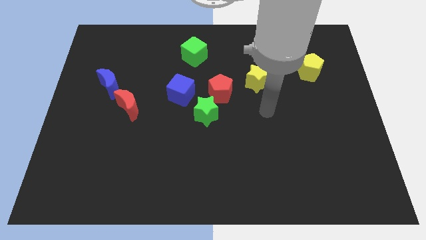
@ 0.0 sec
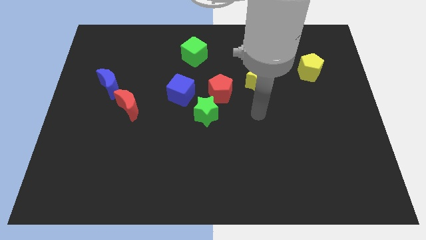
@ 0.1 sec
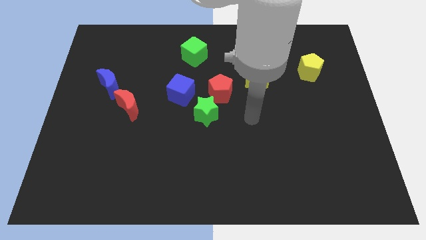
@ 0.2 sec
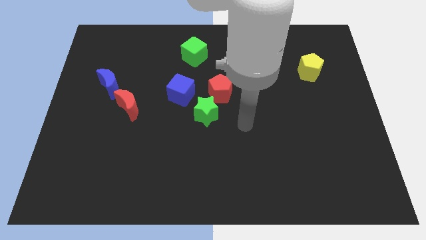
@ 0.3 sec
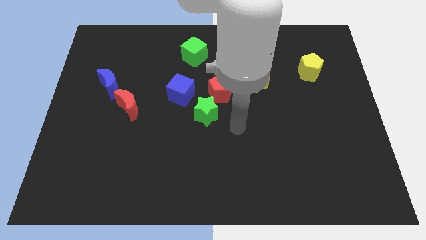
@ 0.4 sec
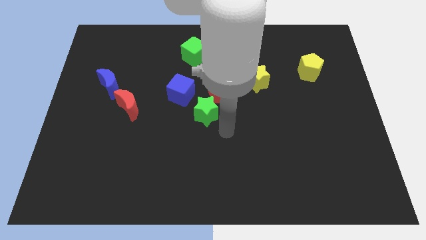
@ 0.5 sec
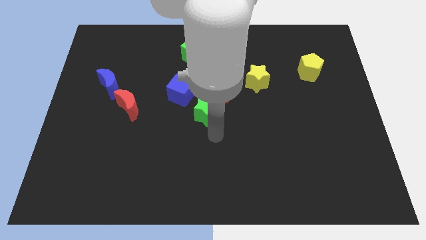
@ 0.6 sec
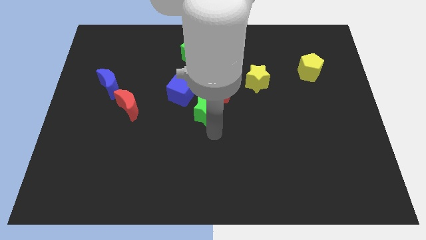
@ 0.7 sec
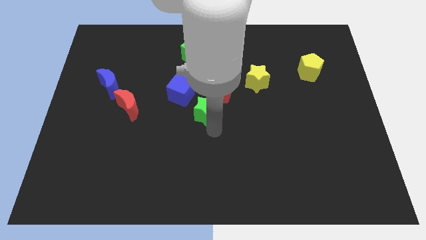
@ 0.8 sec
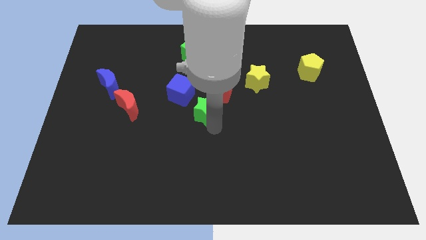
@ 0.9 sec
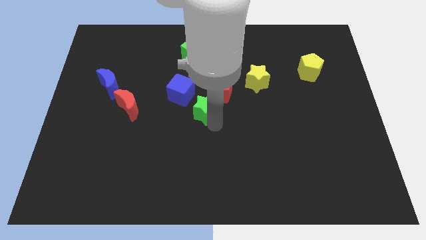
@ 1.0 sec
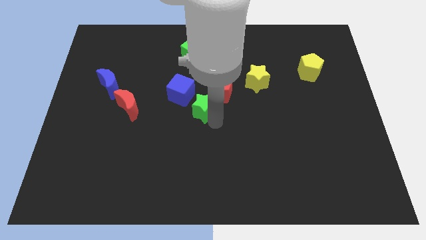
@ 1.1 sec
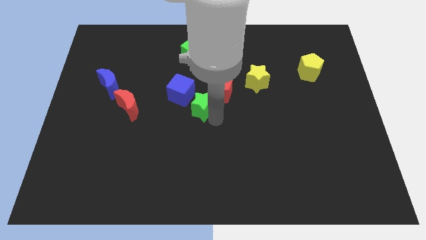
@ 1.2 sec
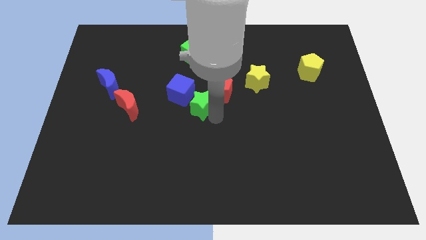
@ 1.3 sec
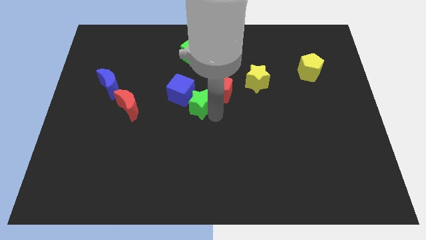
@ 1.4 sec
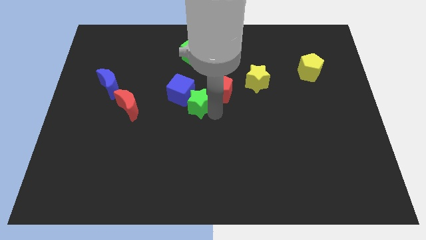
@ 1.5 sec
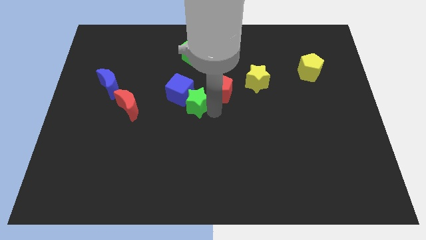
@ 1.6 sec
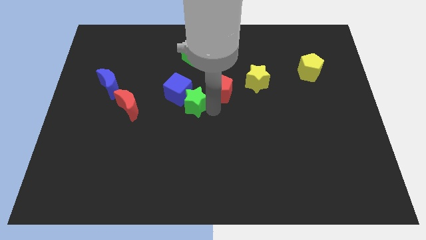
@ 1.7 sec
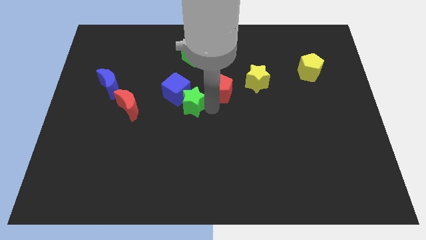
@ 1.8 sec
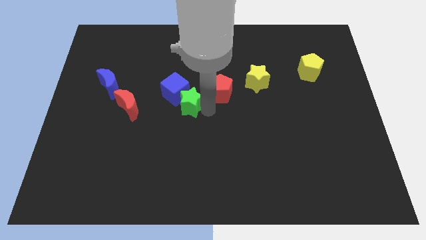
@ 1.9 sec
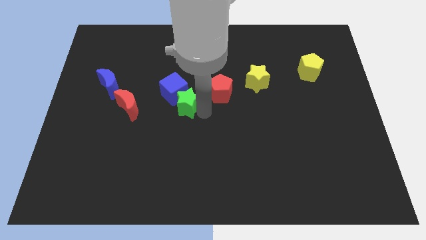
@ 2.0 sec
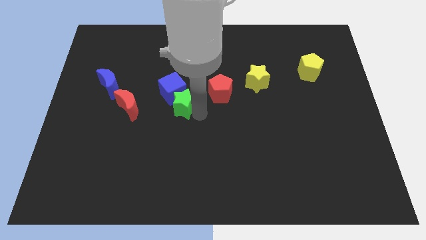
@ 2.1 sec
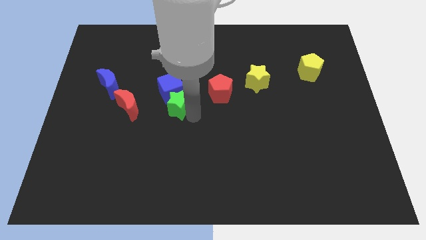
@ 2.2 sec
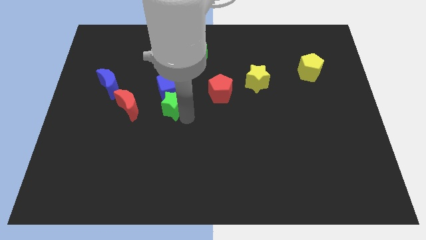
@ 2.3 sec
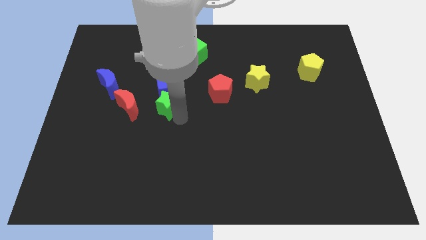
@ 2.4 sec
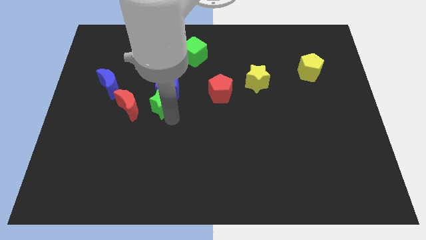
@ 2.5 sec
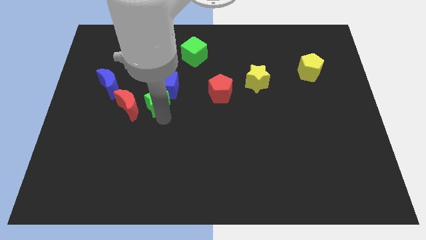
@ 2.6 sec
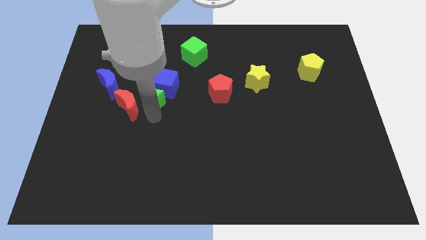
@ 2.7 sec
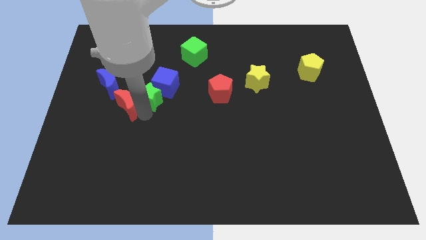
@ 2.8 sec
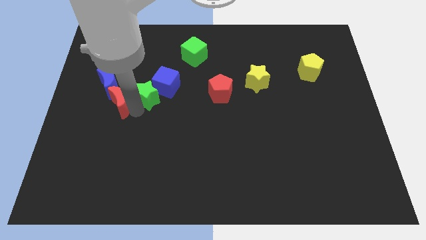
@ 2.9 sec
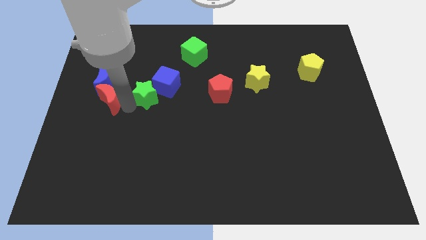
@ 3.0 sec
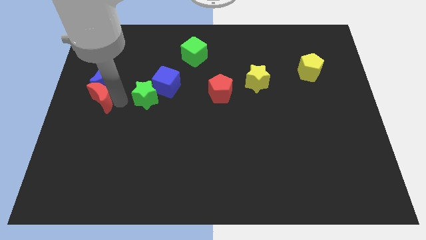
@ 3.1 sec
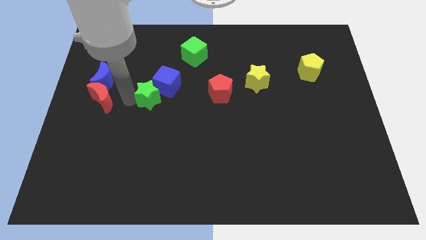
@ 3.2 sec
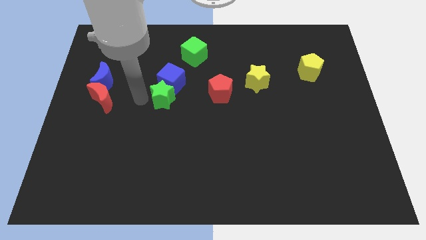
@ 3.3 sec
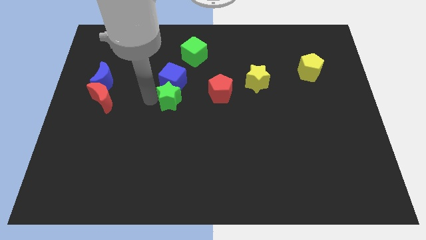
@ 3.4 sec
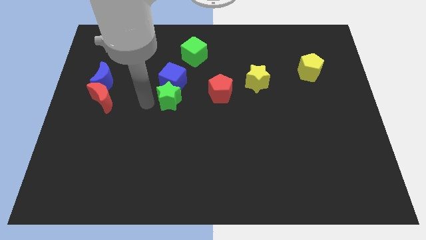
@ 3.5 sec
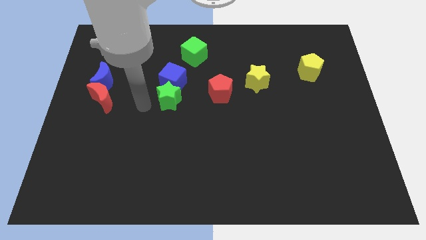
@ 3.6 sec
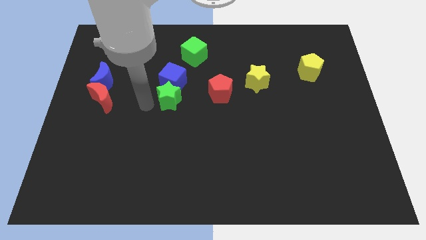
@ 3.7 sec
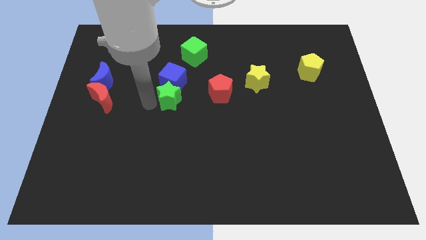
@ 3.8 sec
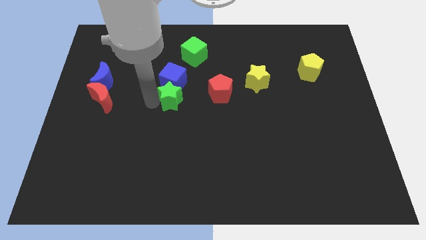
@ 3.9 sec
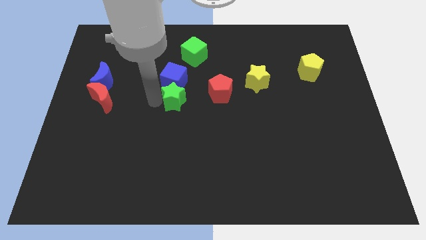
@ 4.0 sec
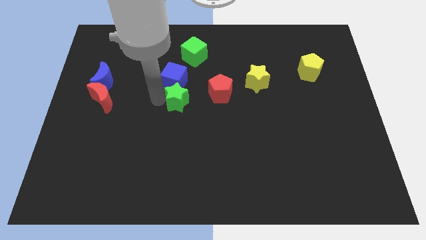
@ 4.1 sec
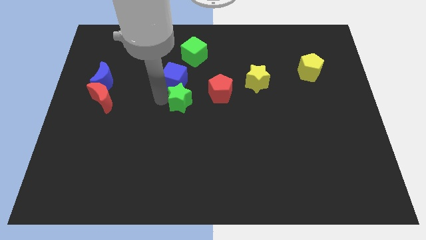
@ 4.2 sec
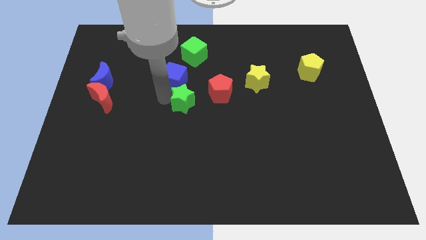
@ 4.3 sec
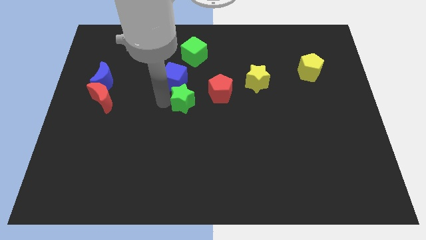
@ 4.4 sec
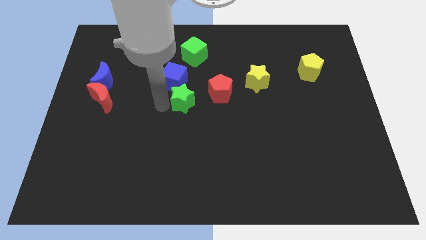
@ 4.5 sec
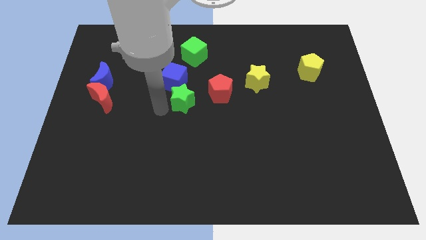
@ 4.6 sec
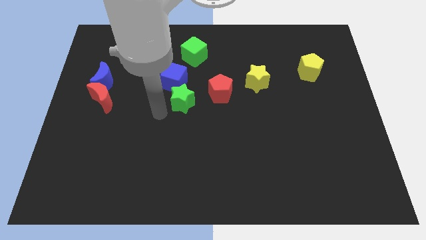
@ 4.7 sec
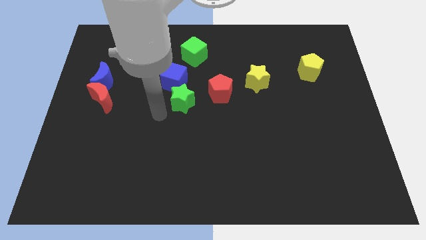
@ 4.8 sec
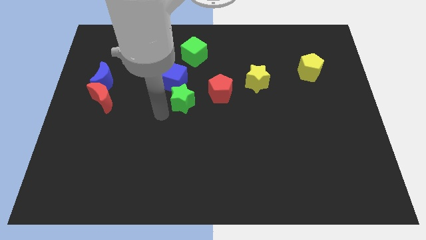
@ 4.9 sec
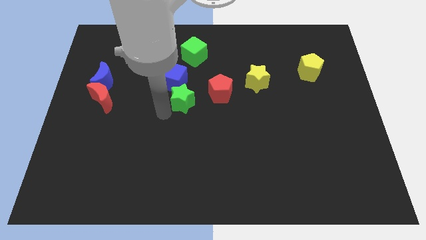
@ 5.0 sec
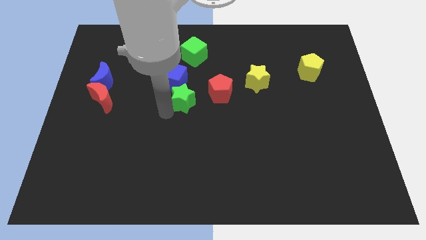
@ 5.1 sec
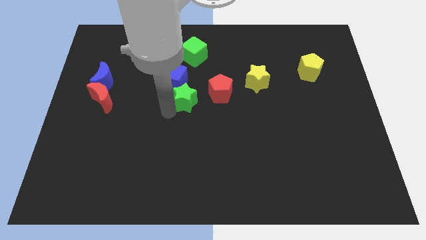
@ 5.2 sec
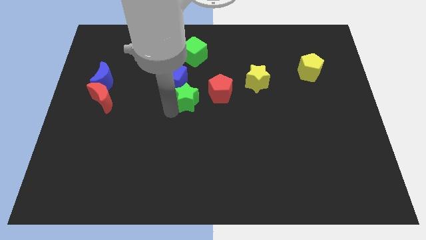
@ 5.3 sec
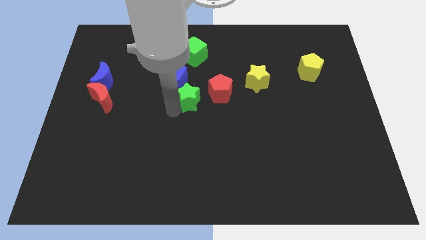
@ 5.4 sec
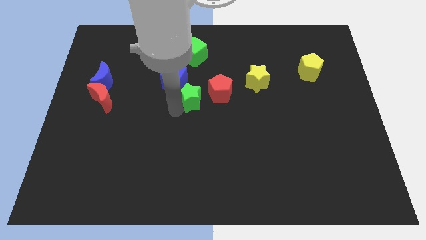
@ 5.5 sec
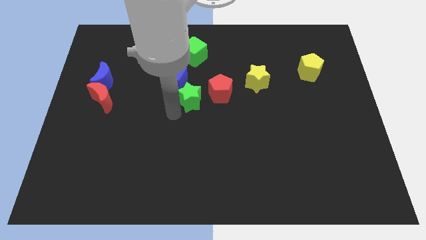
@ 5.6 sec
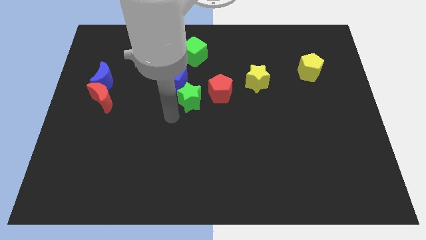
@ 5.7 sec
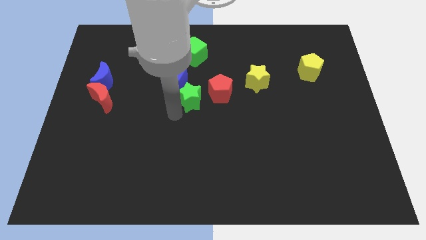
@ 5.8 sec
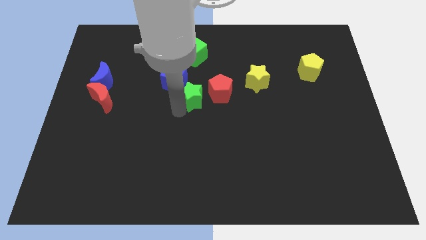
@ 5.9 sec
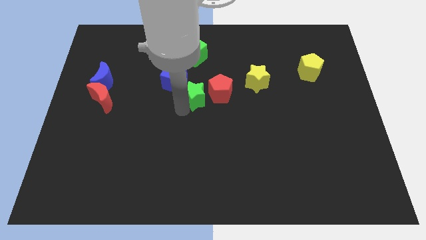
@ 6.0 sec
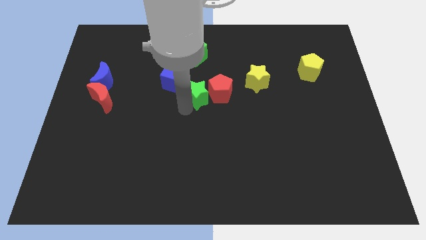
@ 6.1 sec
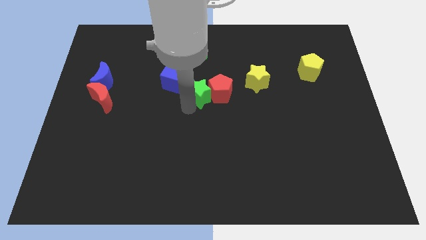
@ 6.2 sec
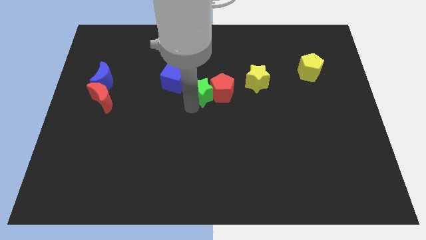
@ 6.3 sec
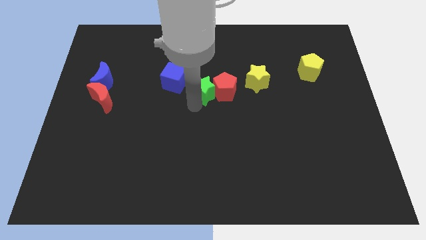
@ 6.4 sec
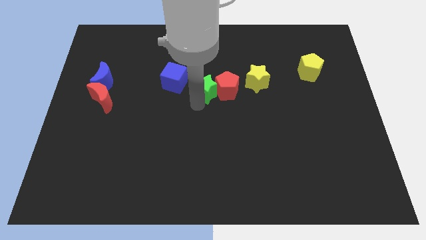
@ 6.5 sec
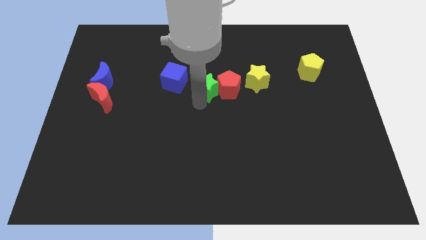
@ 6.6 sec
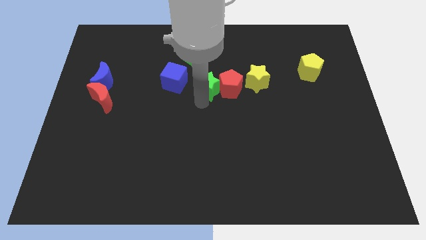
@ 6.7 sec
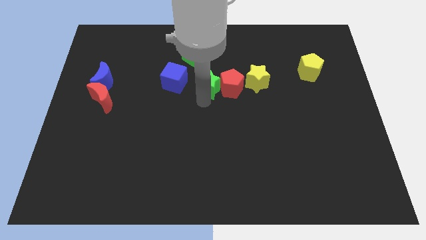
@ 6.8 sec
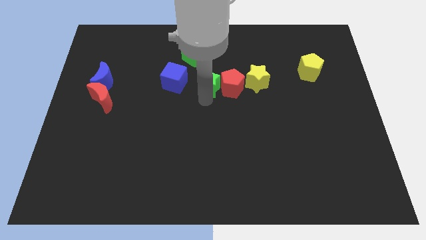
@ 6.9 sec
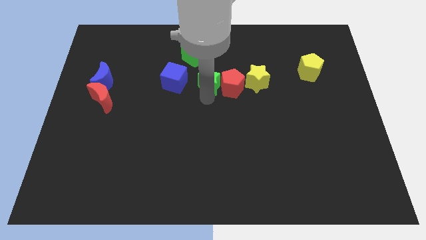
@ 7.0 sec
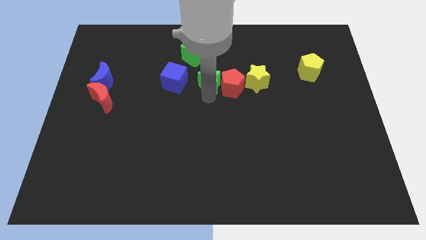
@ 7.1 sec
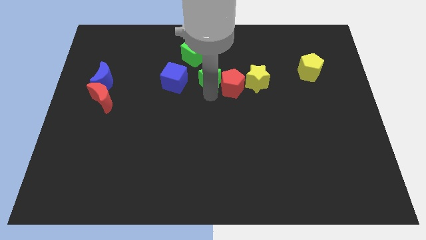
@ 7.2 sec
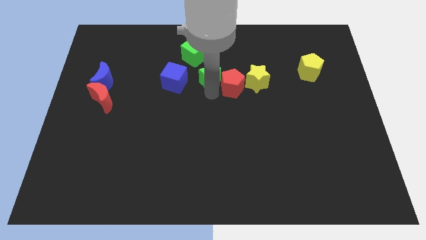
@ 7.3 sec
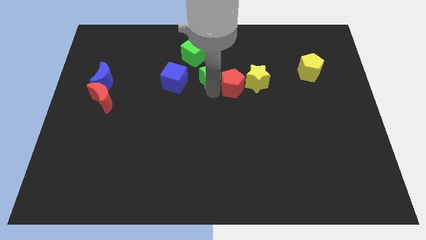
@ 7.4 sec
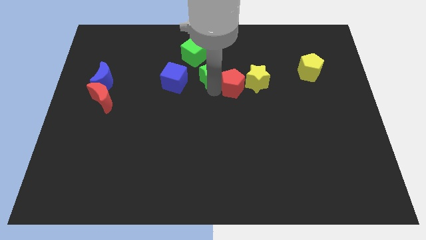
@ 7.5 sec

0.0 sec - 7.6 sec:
move the green star a little upwards and to the right

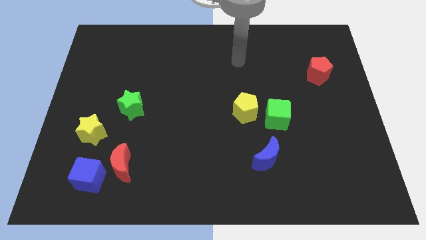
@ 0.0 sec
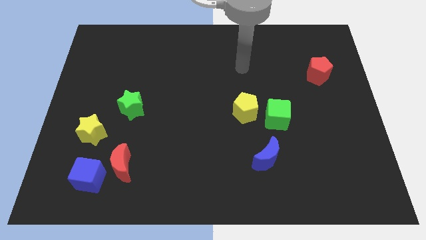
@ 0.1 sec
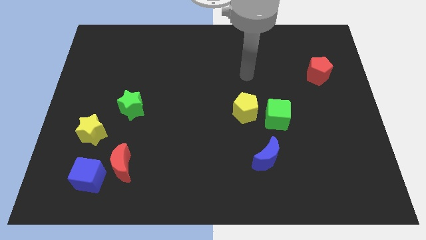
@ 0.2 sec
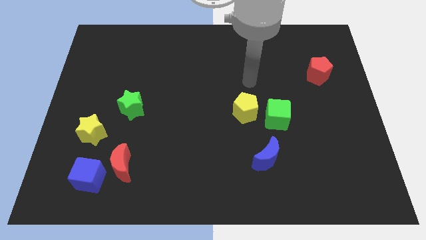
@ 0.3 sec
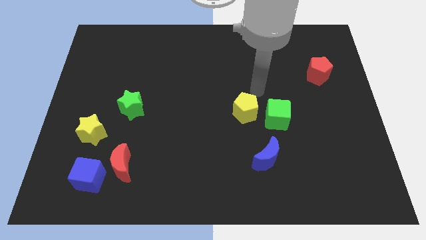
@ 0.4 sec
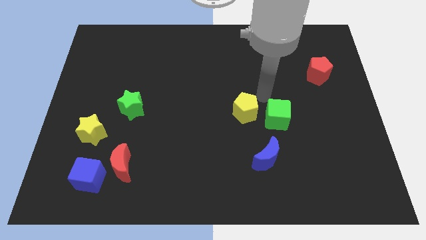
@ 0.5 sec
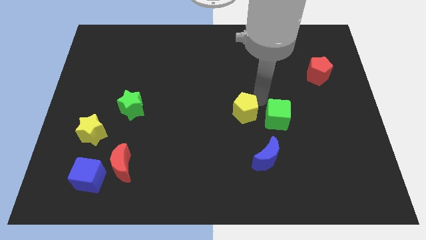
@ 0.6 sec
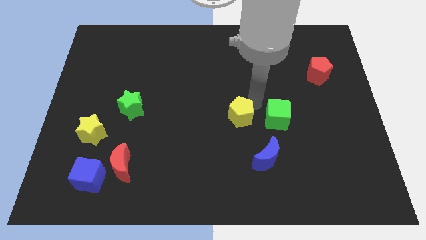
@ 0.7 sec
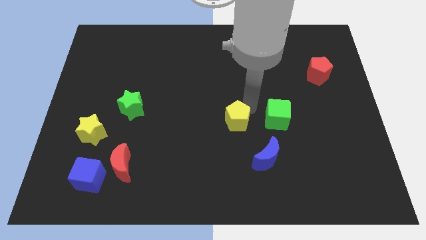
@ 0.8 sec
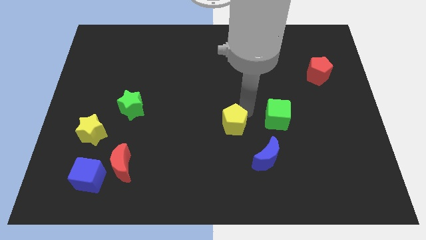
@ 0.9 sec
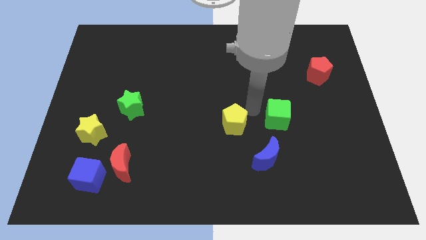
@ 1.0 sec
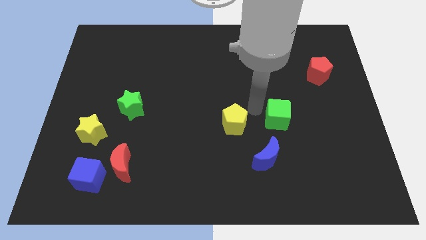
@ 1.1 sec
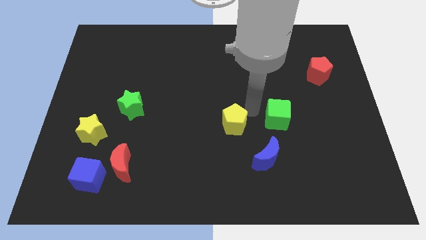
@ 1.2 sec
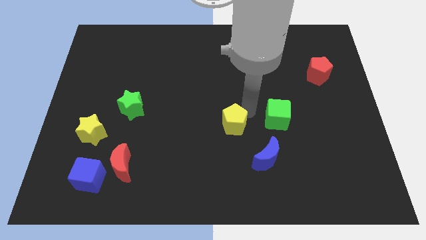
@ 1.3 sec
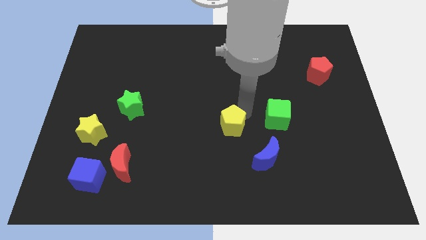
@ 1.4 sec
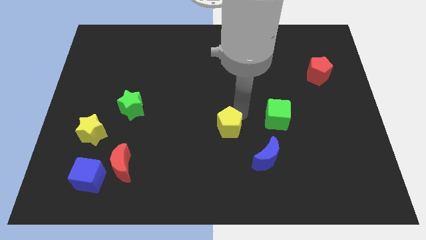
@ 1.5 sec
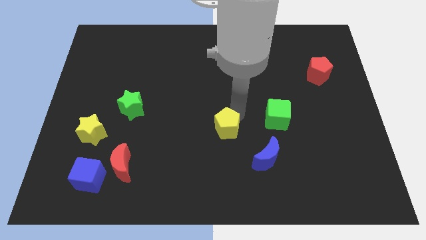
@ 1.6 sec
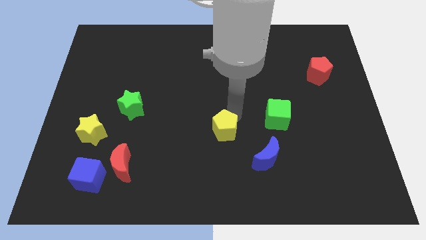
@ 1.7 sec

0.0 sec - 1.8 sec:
slide the yellow pentagon somewhat downwards and then to the left
